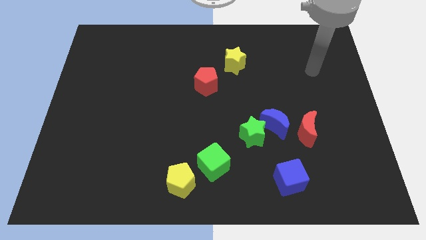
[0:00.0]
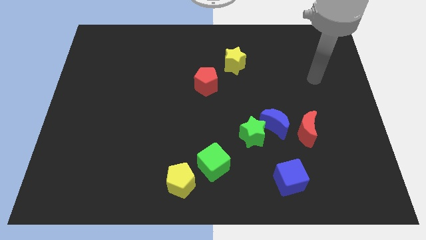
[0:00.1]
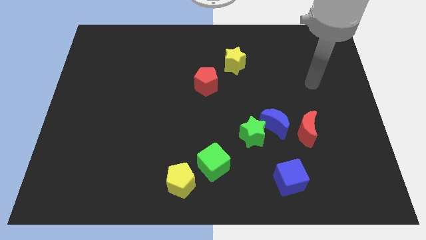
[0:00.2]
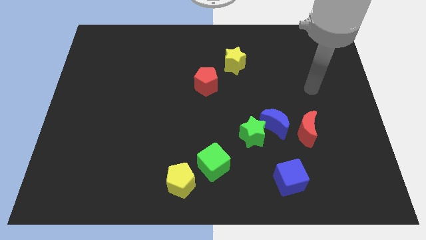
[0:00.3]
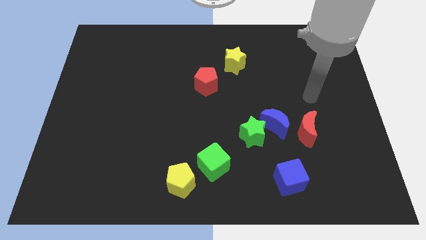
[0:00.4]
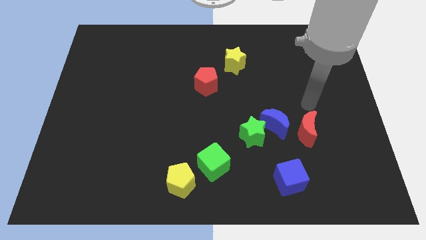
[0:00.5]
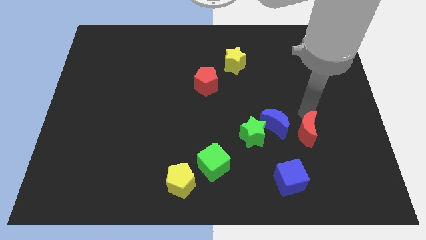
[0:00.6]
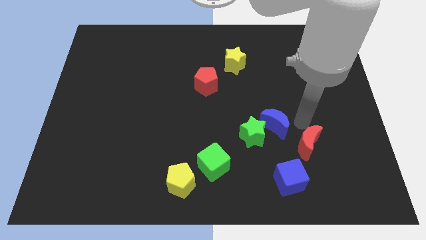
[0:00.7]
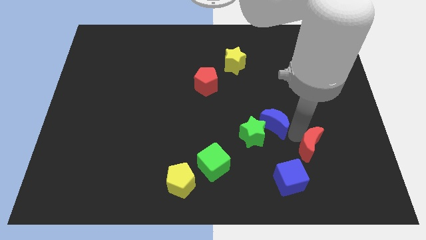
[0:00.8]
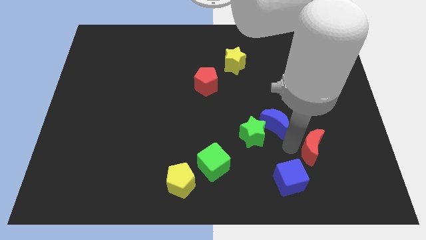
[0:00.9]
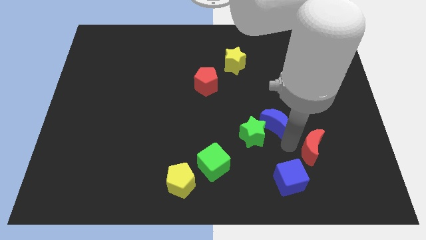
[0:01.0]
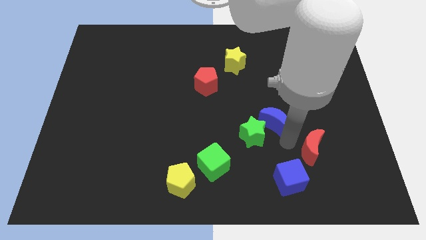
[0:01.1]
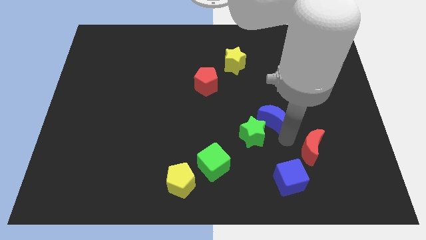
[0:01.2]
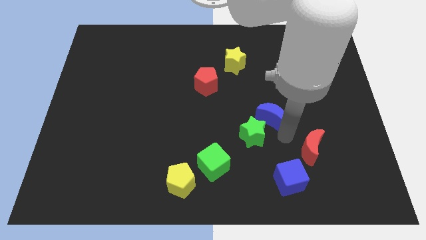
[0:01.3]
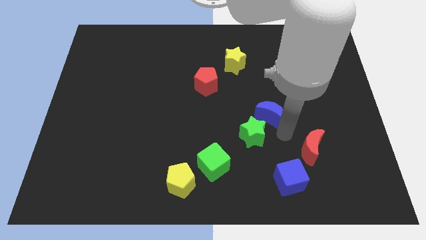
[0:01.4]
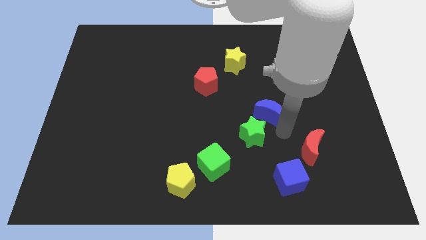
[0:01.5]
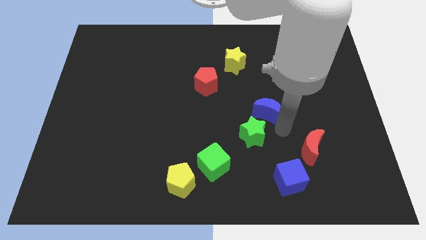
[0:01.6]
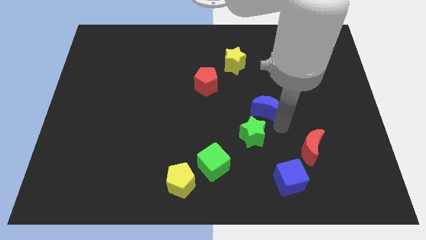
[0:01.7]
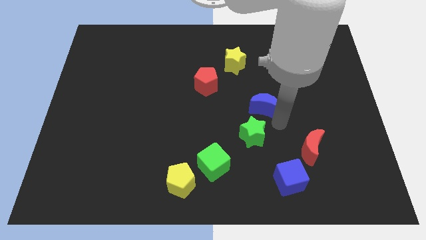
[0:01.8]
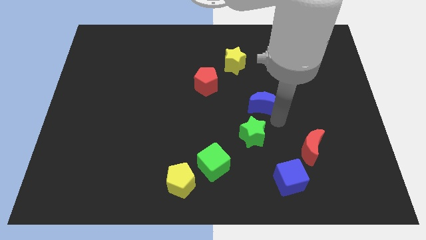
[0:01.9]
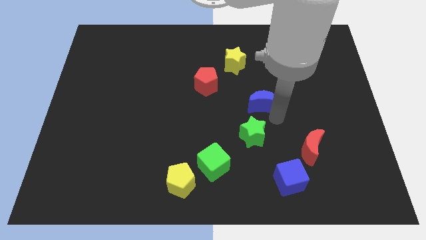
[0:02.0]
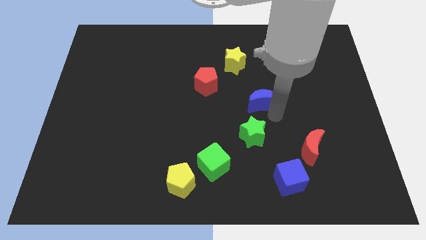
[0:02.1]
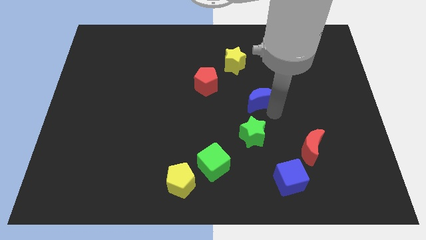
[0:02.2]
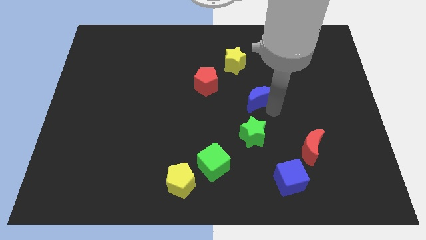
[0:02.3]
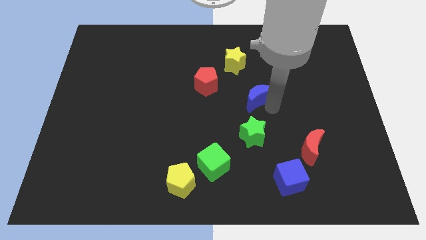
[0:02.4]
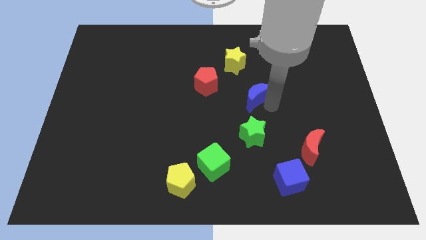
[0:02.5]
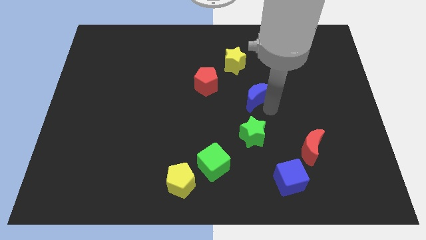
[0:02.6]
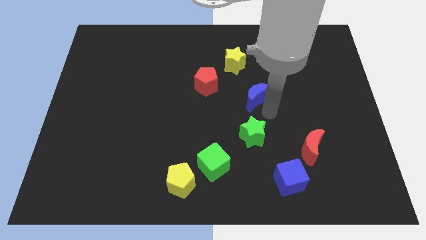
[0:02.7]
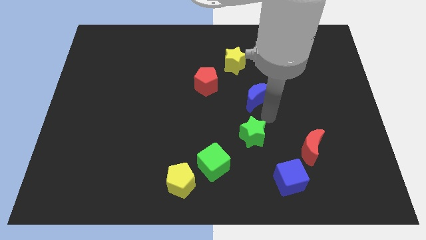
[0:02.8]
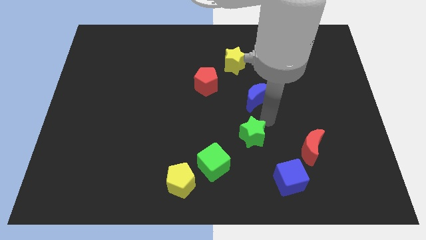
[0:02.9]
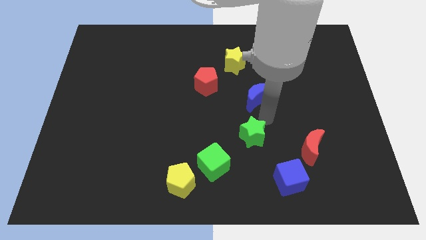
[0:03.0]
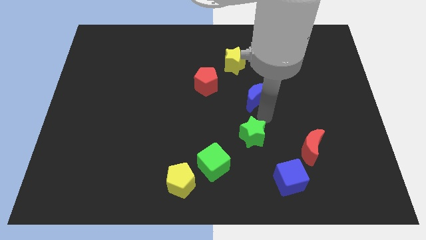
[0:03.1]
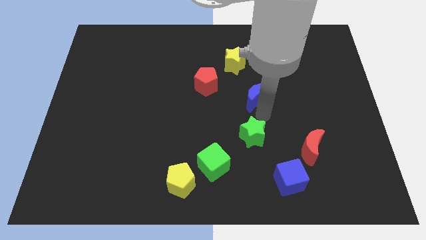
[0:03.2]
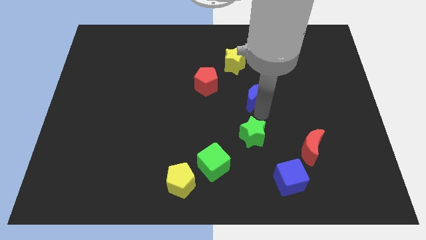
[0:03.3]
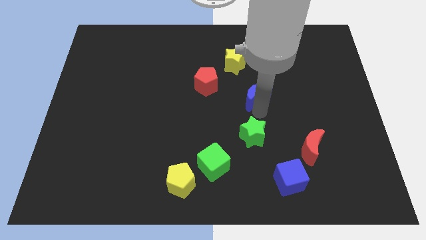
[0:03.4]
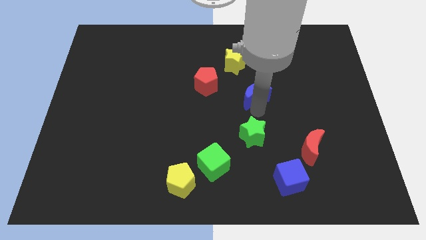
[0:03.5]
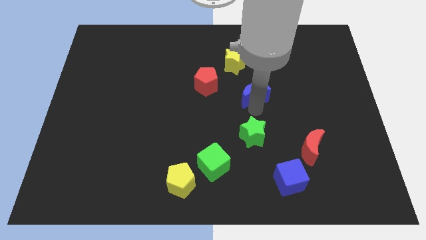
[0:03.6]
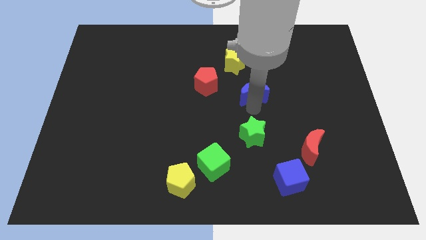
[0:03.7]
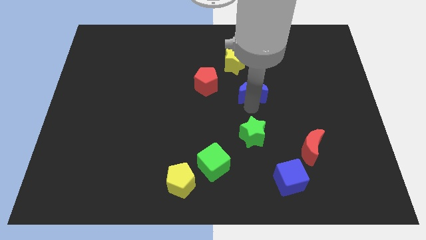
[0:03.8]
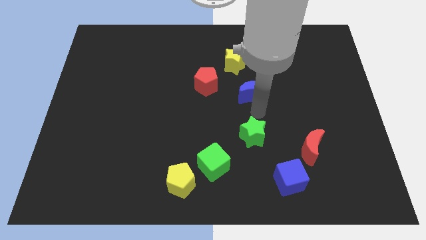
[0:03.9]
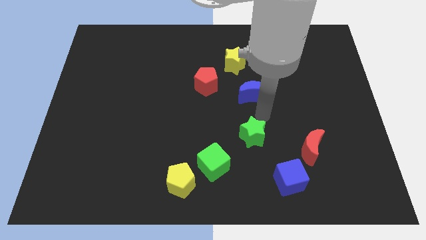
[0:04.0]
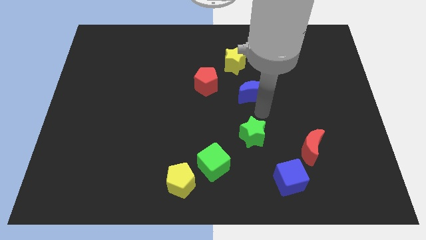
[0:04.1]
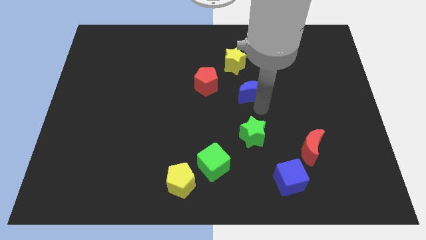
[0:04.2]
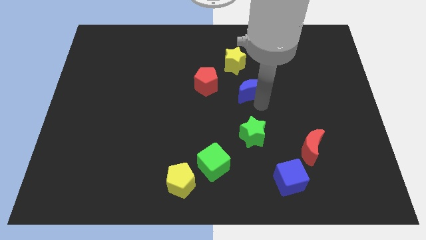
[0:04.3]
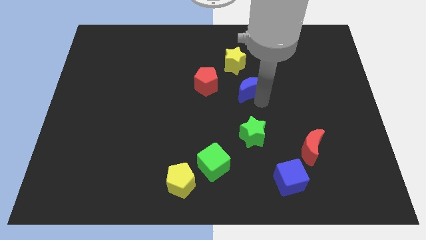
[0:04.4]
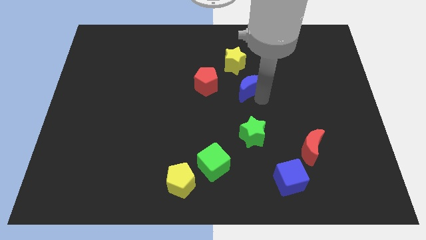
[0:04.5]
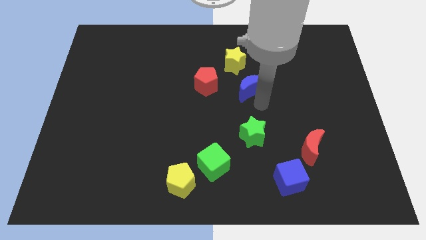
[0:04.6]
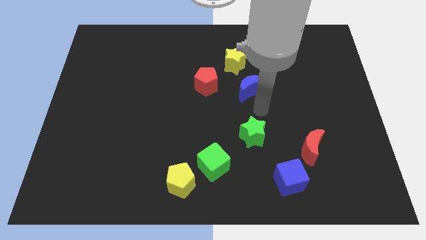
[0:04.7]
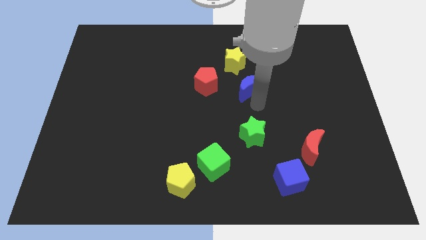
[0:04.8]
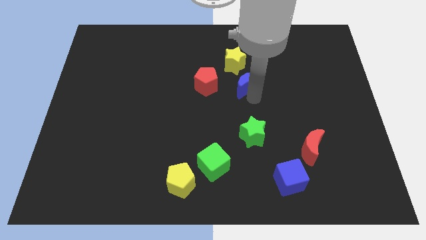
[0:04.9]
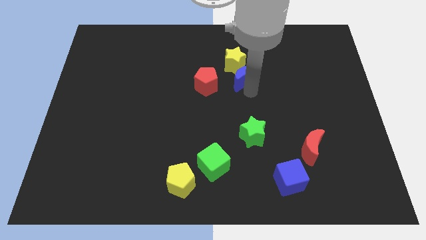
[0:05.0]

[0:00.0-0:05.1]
move the blue moon towards the yellow star

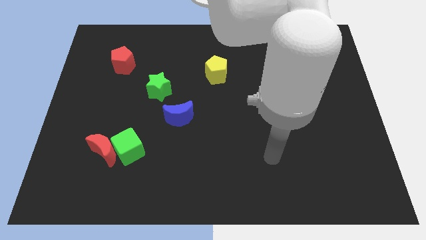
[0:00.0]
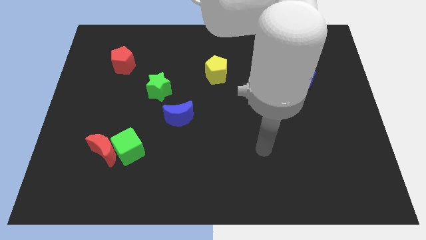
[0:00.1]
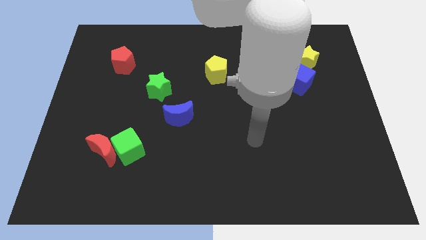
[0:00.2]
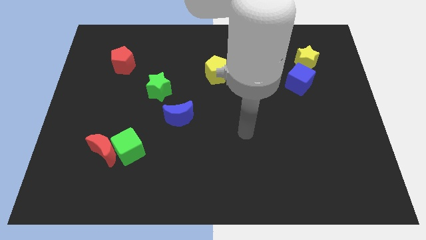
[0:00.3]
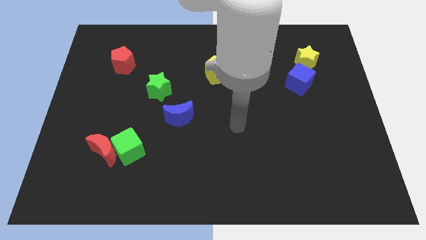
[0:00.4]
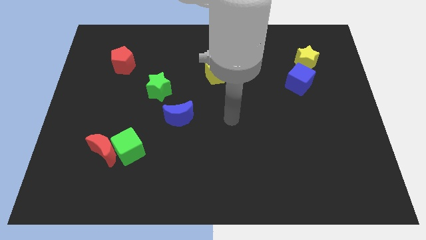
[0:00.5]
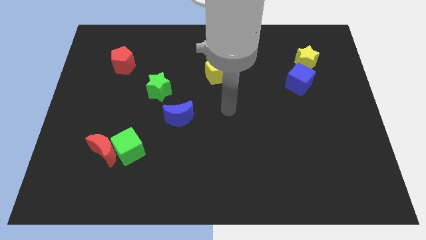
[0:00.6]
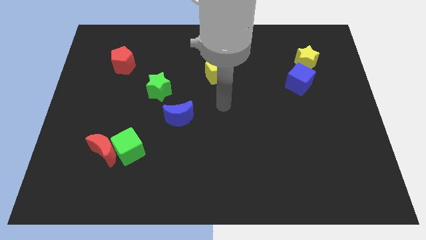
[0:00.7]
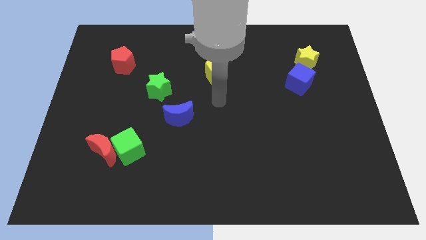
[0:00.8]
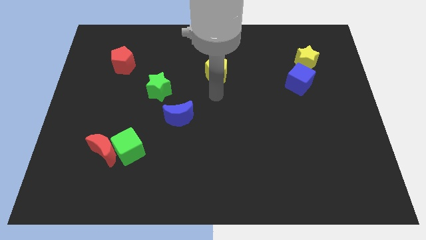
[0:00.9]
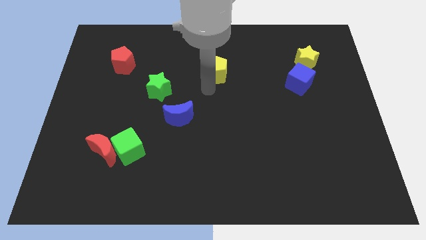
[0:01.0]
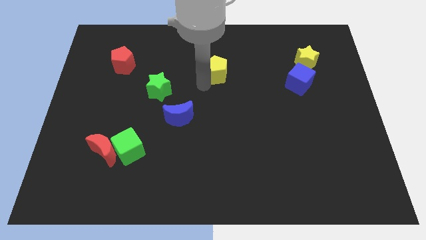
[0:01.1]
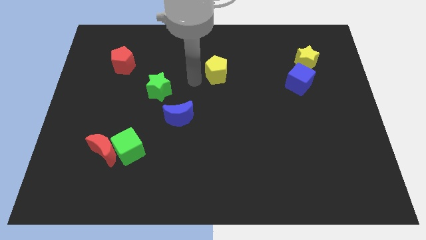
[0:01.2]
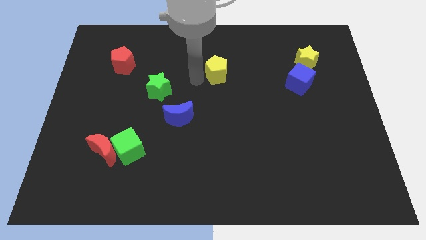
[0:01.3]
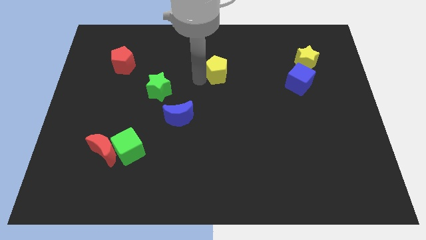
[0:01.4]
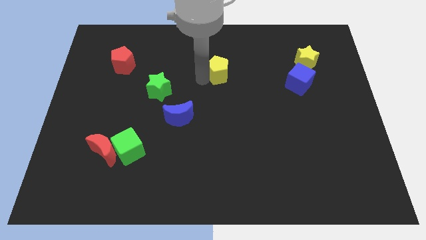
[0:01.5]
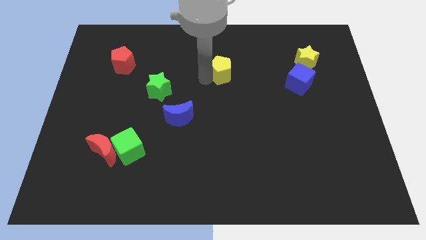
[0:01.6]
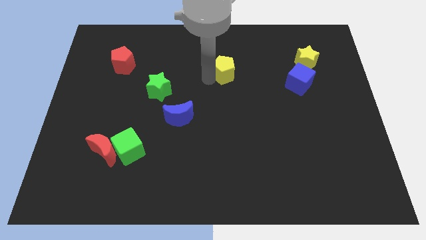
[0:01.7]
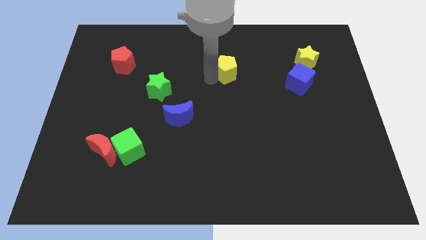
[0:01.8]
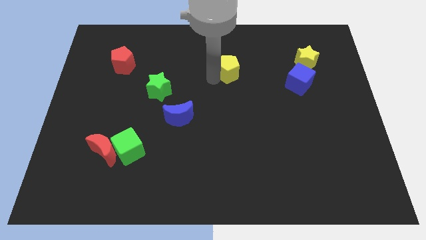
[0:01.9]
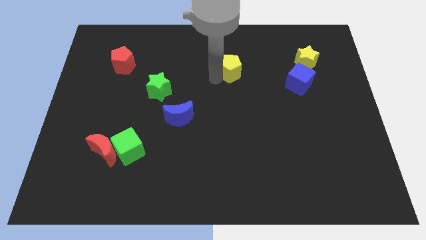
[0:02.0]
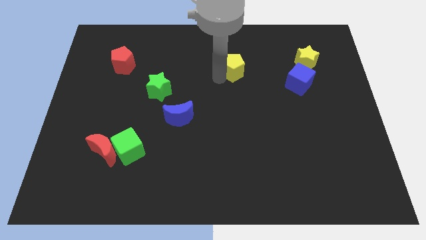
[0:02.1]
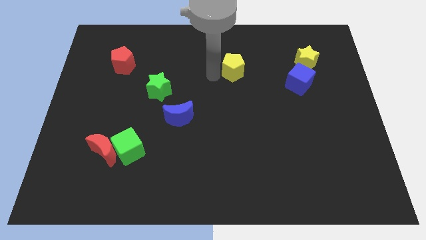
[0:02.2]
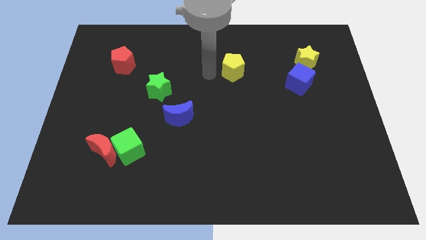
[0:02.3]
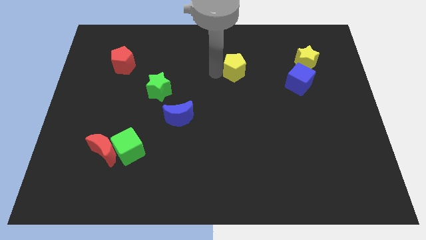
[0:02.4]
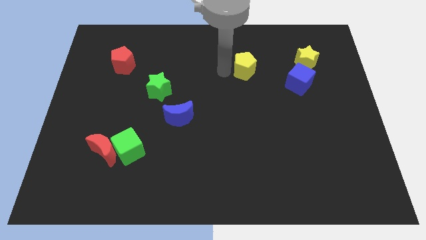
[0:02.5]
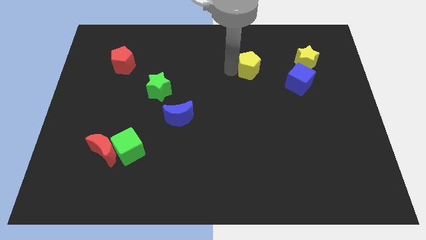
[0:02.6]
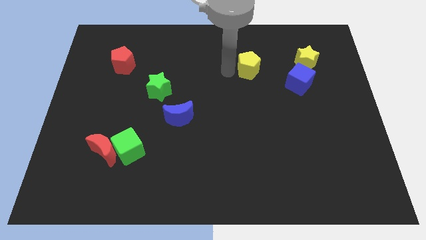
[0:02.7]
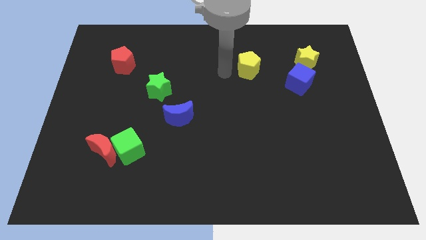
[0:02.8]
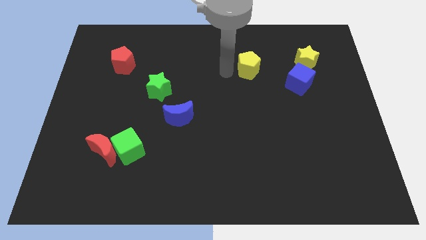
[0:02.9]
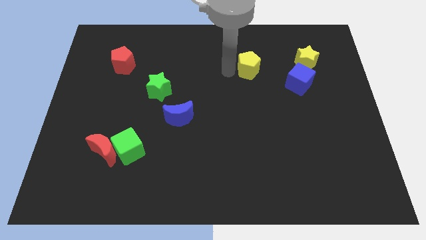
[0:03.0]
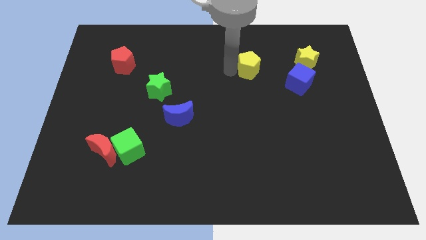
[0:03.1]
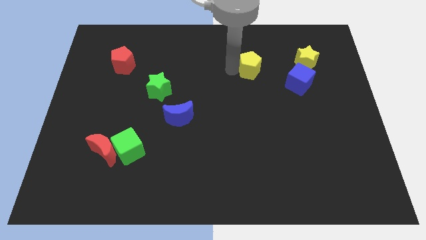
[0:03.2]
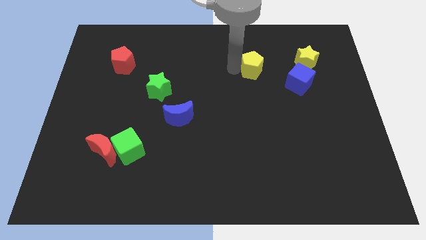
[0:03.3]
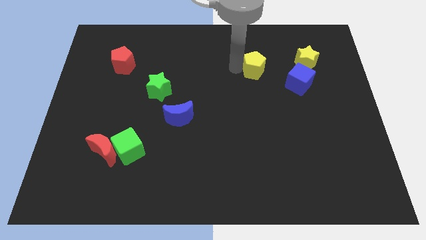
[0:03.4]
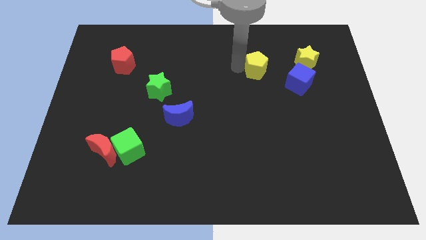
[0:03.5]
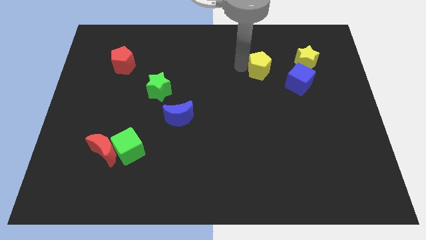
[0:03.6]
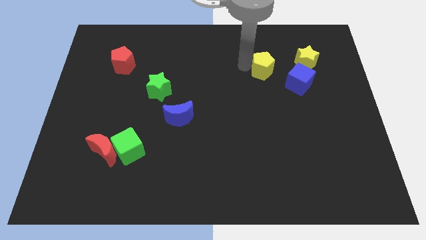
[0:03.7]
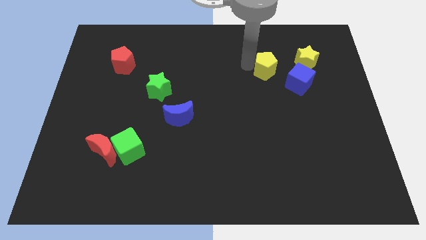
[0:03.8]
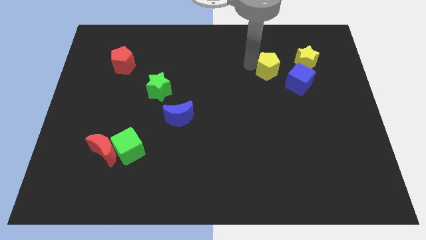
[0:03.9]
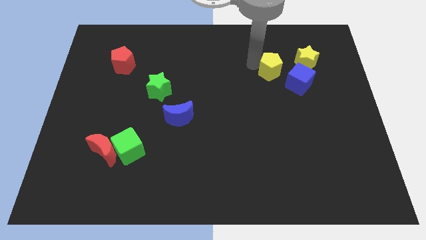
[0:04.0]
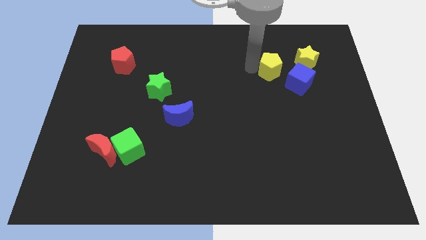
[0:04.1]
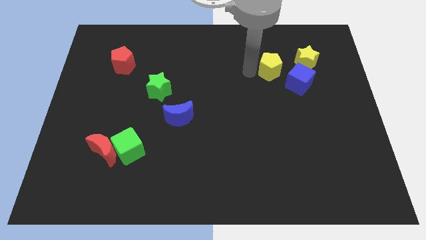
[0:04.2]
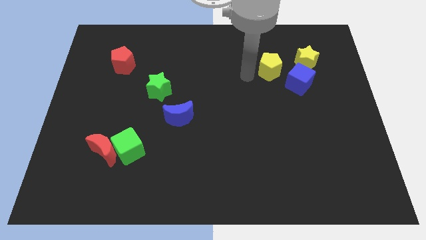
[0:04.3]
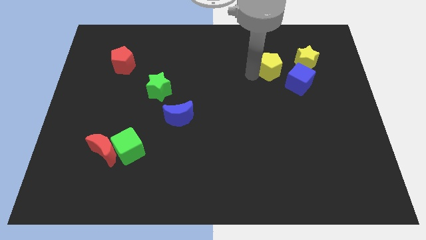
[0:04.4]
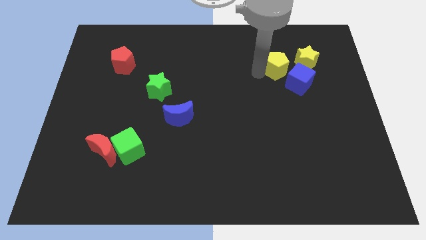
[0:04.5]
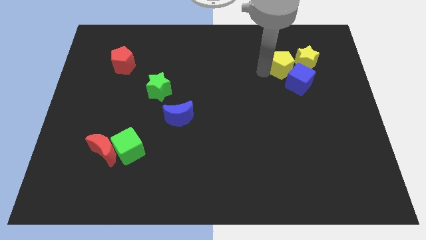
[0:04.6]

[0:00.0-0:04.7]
slide the yellow pentagon towards the yellow star
